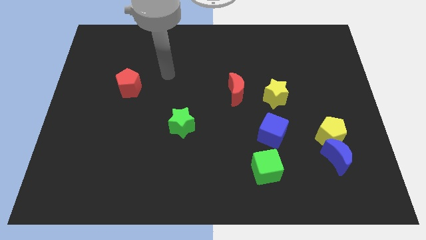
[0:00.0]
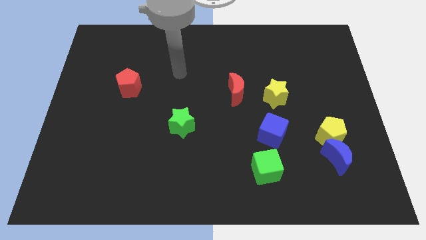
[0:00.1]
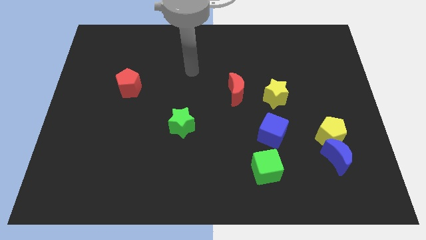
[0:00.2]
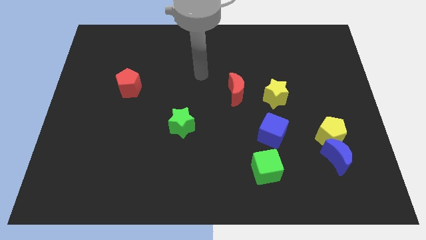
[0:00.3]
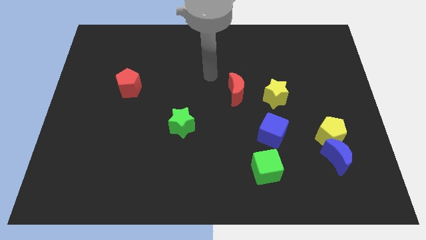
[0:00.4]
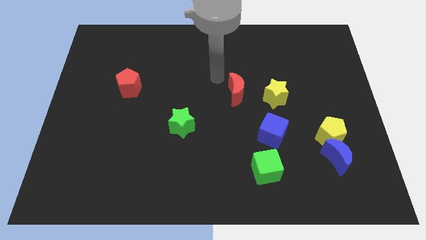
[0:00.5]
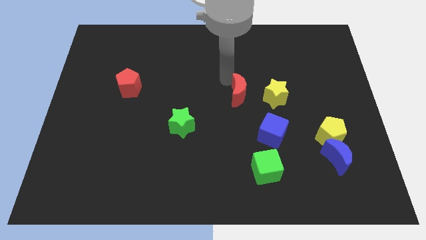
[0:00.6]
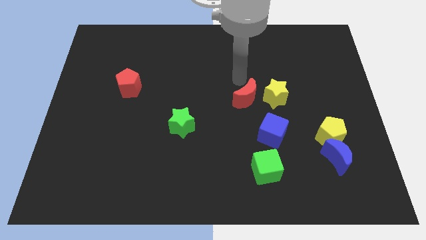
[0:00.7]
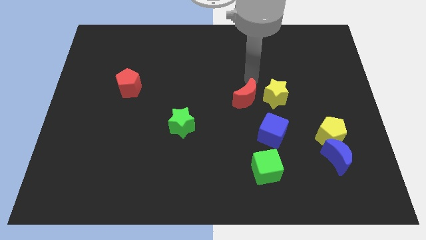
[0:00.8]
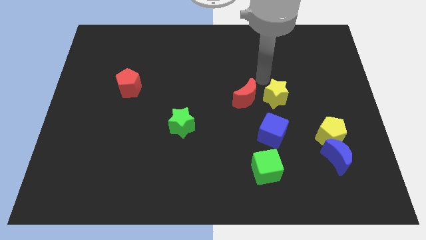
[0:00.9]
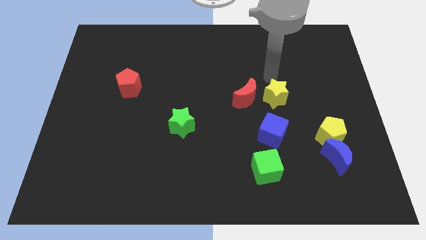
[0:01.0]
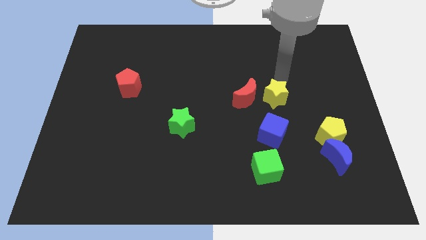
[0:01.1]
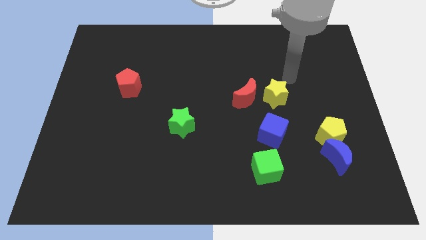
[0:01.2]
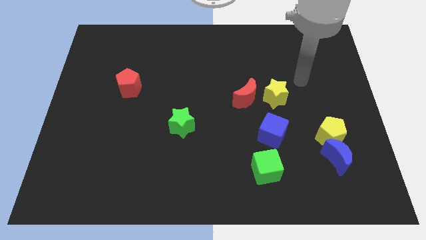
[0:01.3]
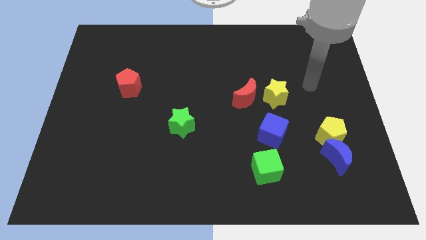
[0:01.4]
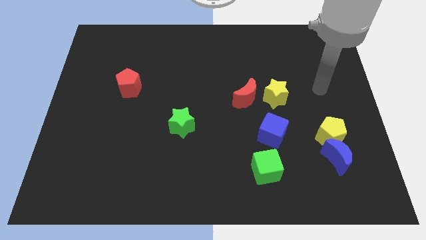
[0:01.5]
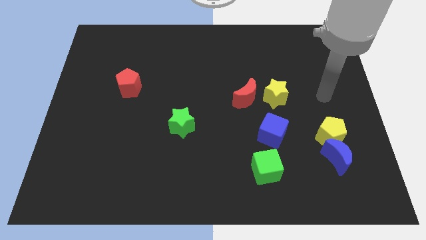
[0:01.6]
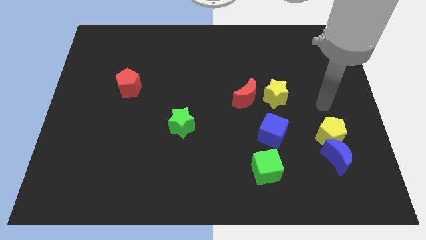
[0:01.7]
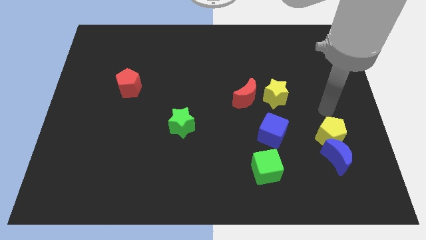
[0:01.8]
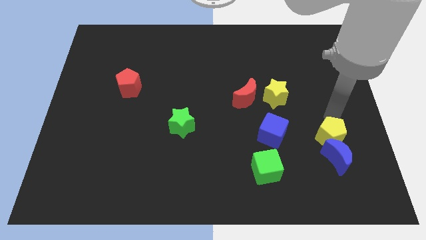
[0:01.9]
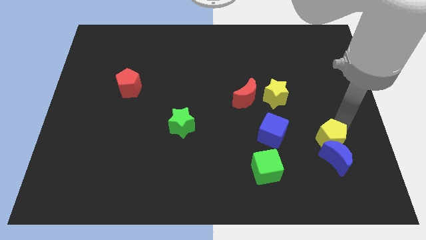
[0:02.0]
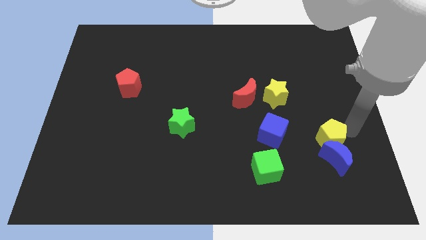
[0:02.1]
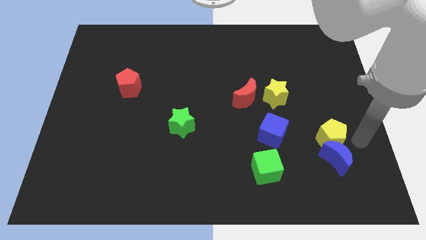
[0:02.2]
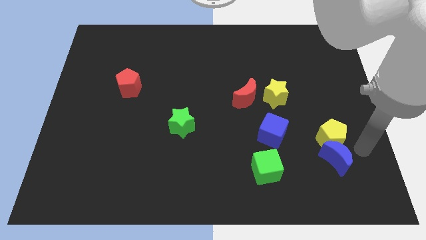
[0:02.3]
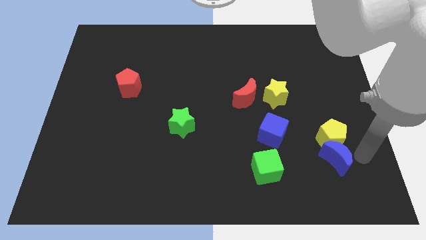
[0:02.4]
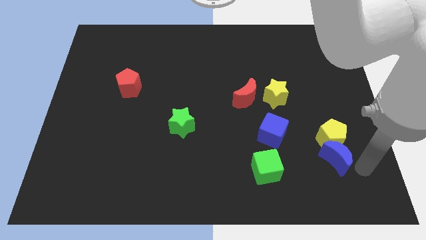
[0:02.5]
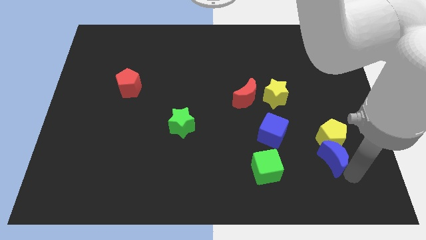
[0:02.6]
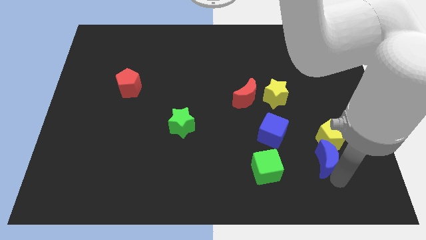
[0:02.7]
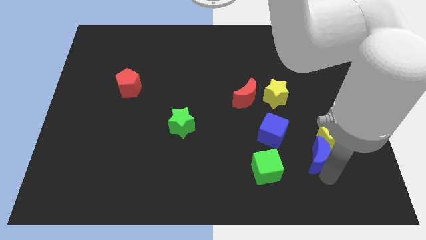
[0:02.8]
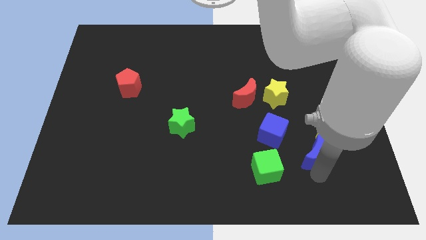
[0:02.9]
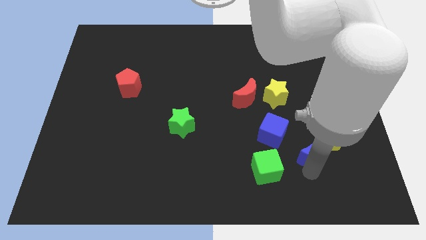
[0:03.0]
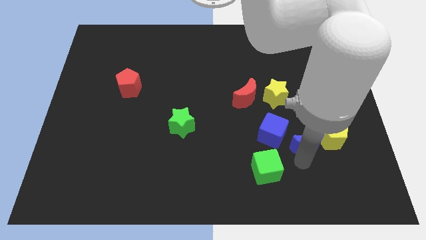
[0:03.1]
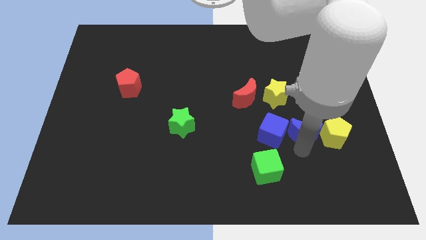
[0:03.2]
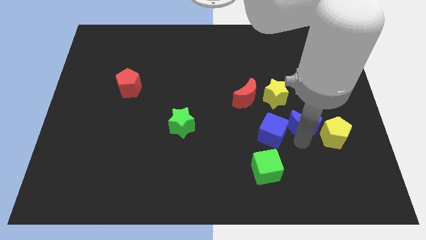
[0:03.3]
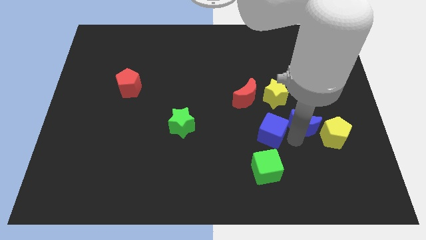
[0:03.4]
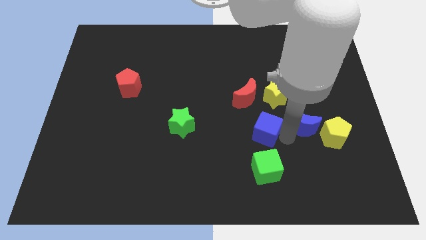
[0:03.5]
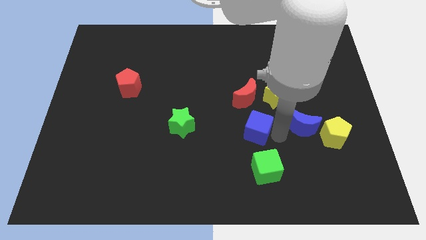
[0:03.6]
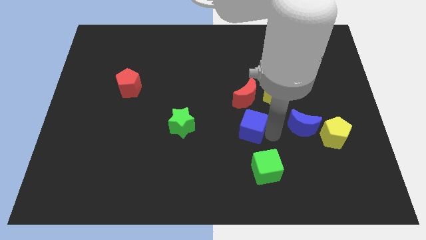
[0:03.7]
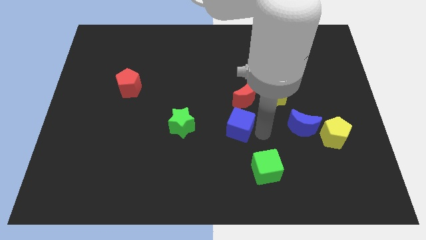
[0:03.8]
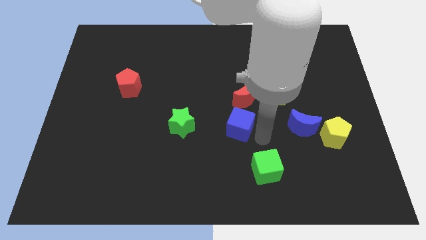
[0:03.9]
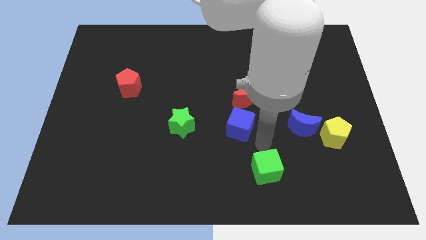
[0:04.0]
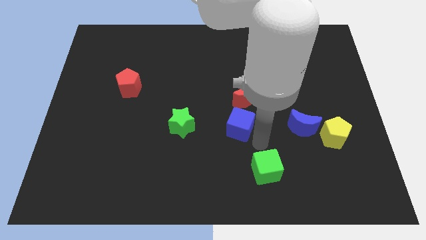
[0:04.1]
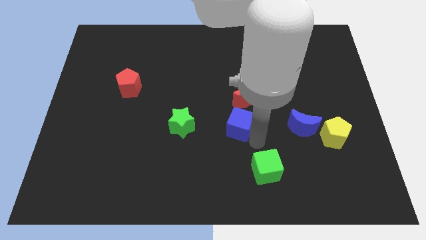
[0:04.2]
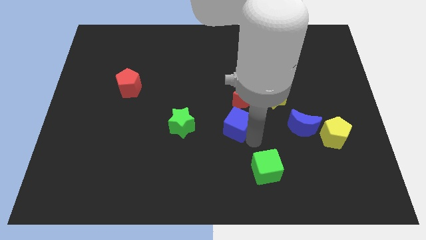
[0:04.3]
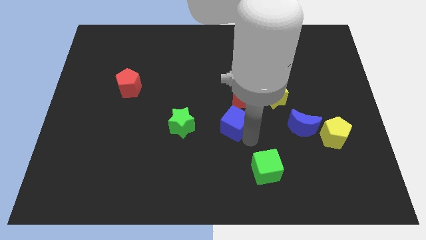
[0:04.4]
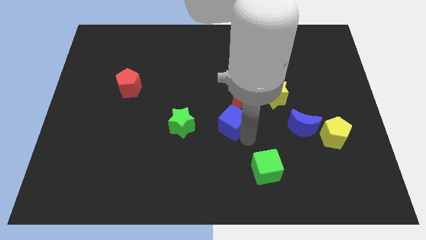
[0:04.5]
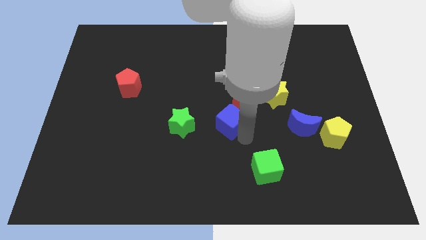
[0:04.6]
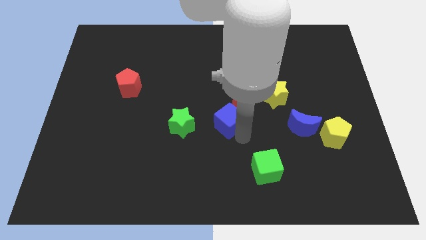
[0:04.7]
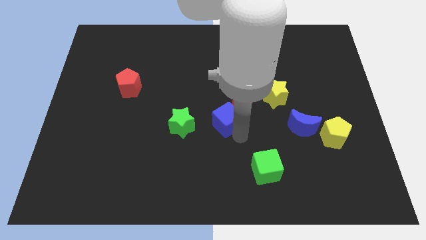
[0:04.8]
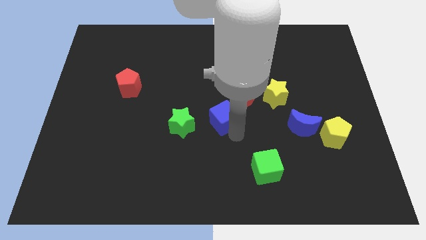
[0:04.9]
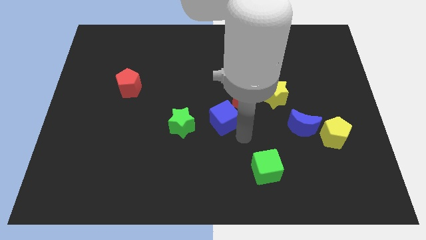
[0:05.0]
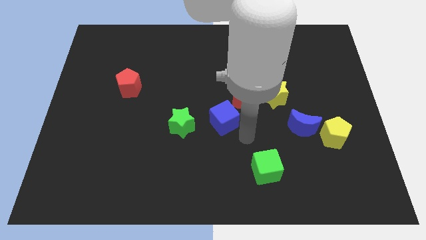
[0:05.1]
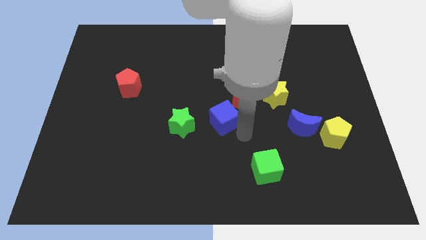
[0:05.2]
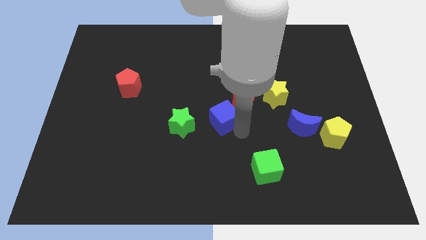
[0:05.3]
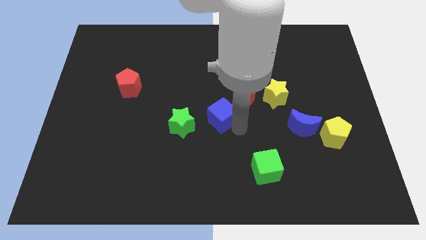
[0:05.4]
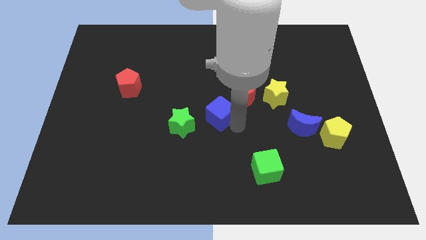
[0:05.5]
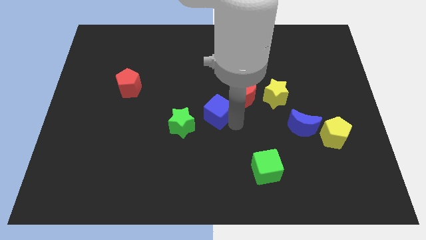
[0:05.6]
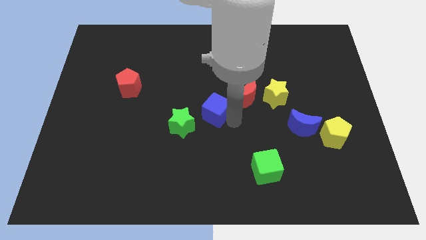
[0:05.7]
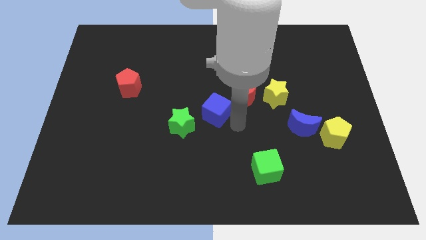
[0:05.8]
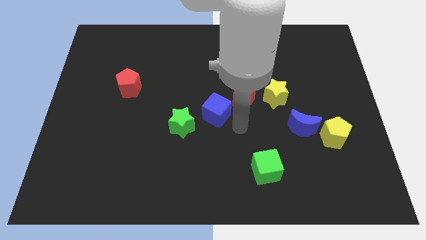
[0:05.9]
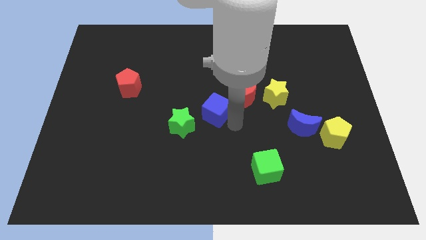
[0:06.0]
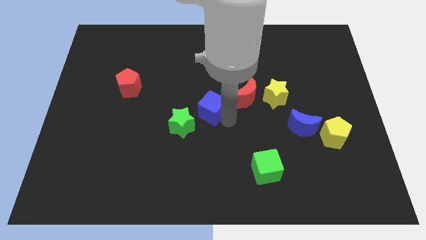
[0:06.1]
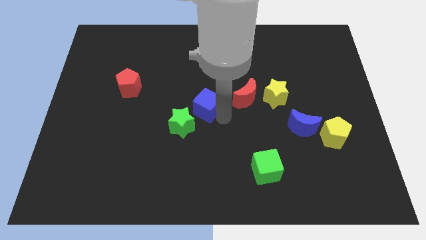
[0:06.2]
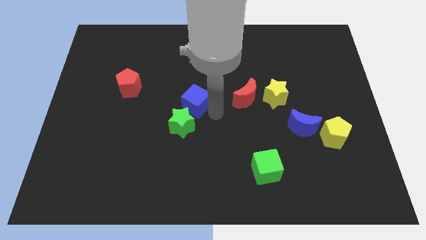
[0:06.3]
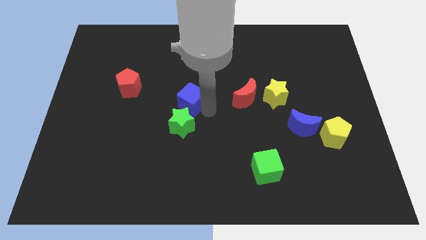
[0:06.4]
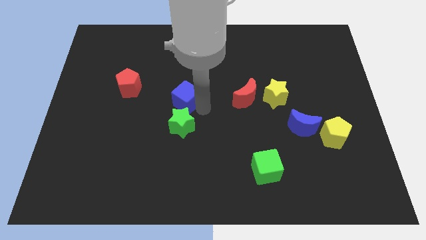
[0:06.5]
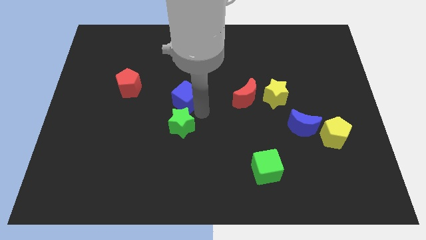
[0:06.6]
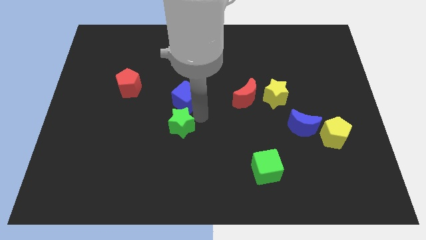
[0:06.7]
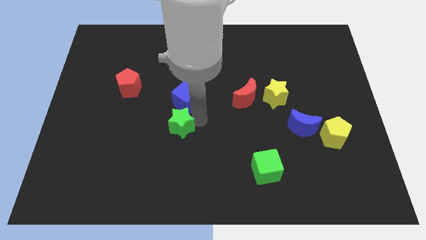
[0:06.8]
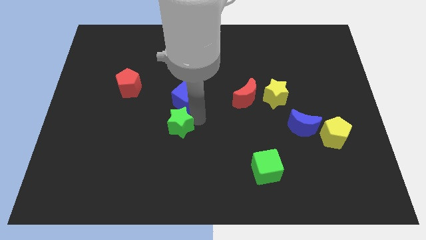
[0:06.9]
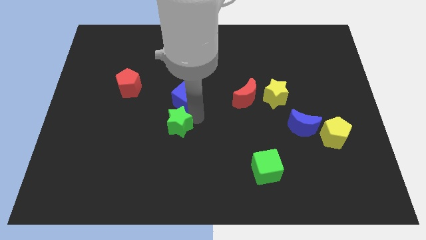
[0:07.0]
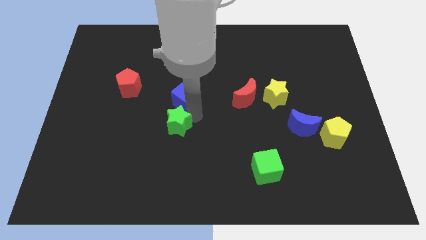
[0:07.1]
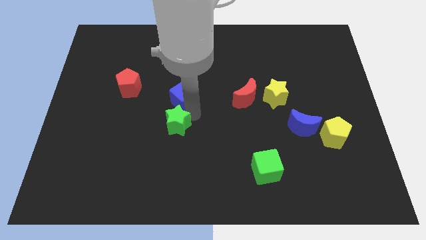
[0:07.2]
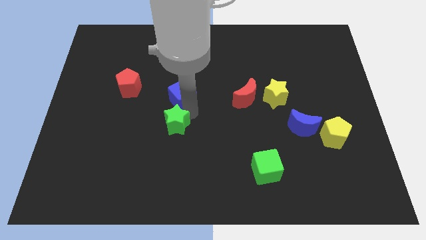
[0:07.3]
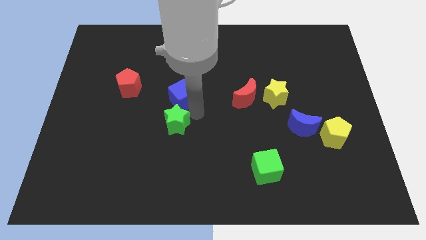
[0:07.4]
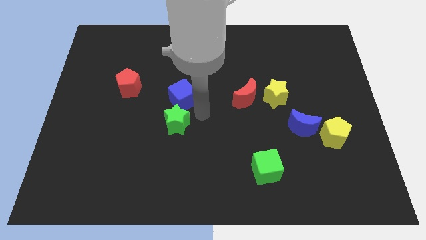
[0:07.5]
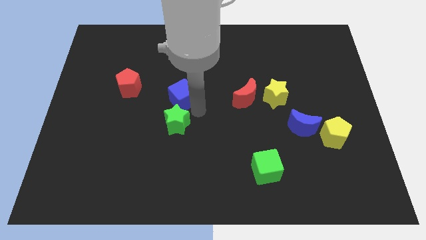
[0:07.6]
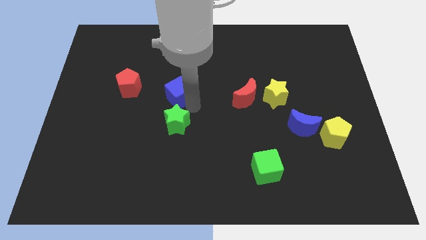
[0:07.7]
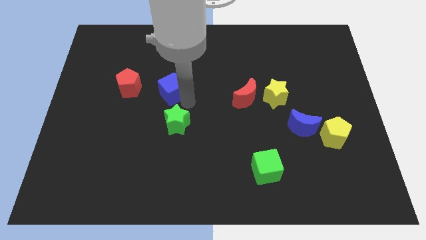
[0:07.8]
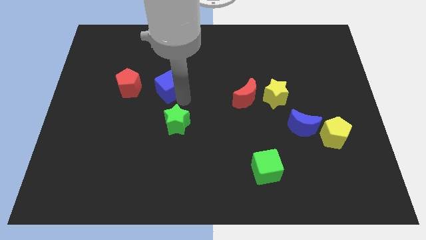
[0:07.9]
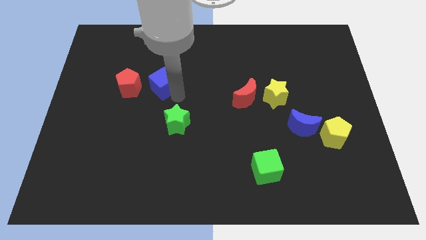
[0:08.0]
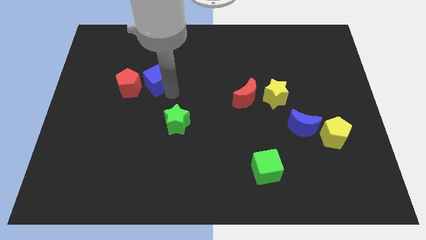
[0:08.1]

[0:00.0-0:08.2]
slide the blue cube to the top right side of the red pentagon
